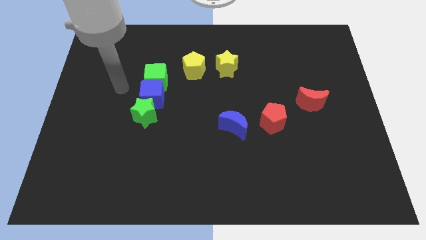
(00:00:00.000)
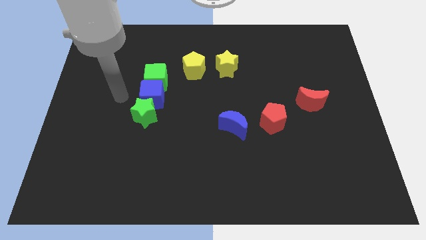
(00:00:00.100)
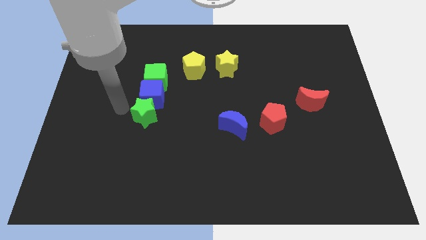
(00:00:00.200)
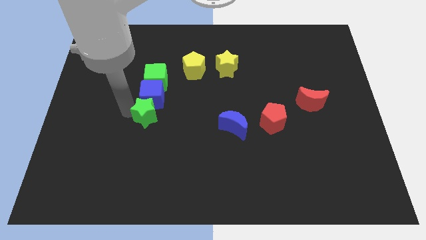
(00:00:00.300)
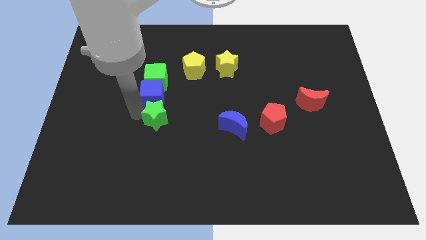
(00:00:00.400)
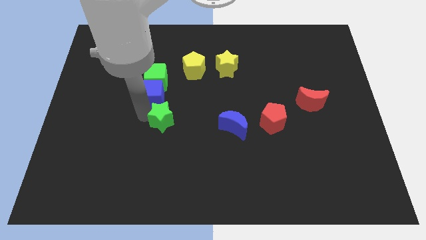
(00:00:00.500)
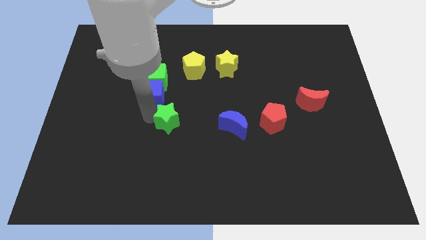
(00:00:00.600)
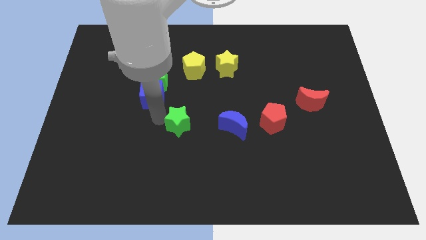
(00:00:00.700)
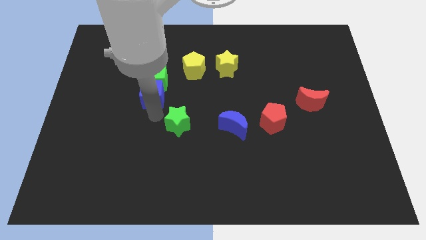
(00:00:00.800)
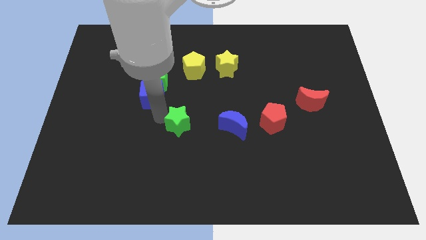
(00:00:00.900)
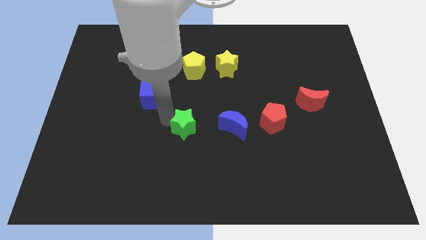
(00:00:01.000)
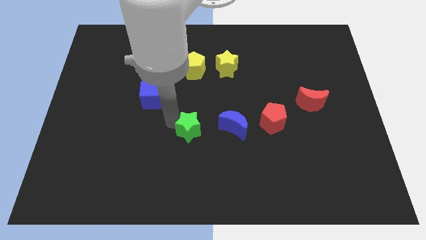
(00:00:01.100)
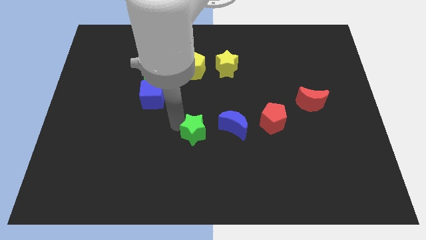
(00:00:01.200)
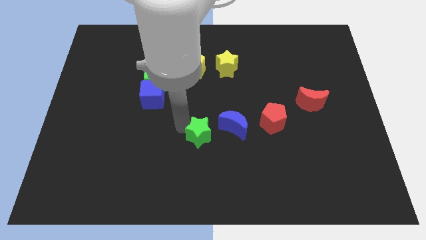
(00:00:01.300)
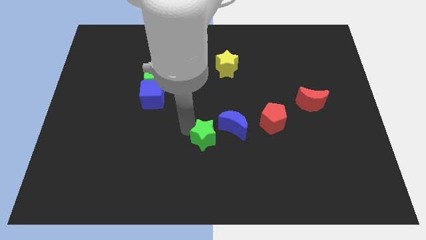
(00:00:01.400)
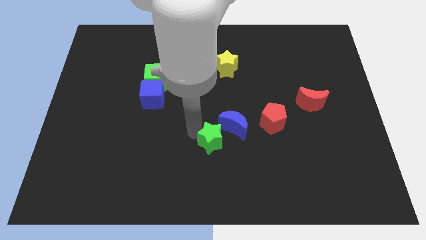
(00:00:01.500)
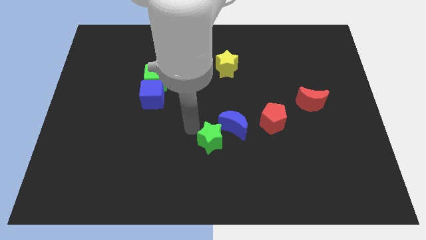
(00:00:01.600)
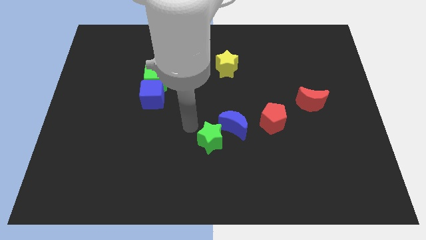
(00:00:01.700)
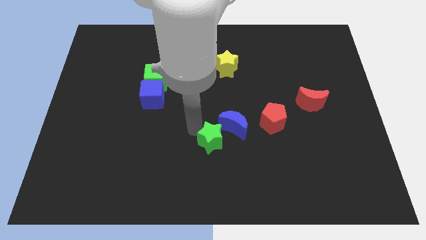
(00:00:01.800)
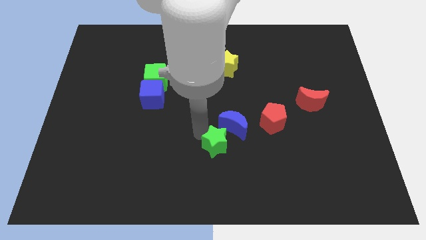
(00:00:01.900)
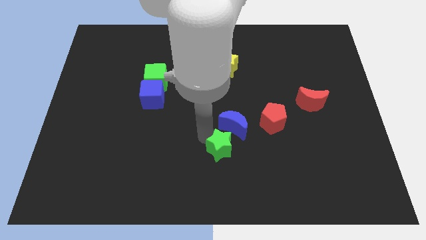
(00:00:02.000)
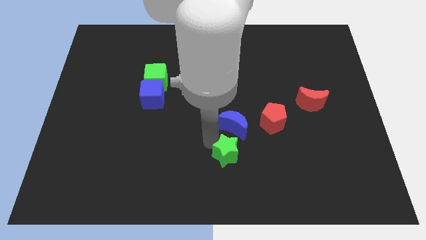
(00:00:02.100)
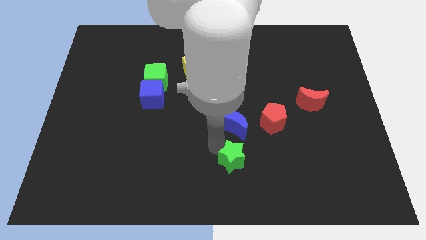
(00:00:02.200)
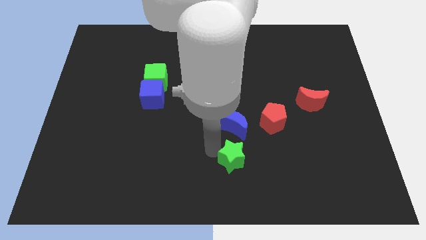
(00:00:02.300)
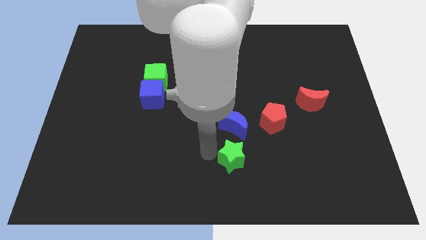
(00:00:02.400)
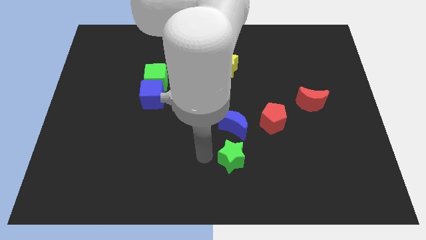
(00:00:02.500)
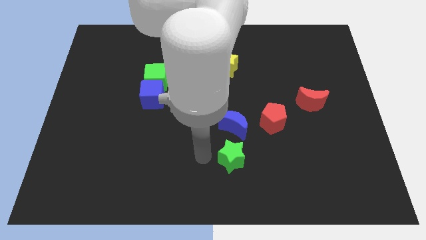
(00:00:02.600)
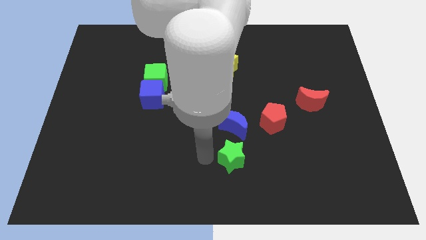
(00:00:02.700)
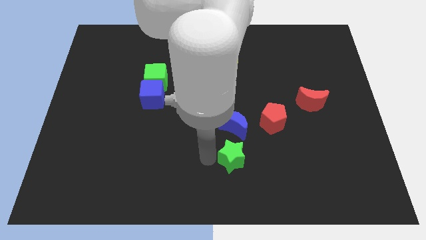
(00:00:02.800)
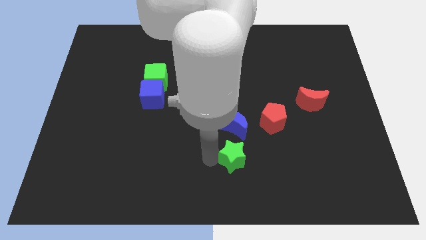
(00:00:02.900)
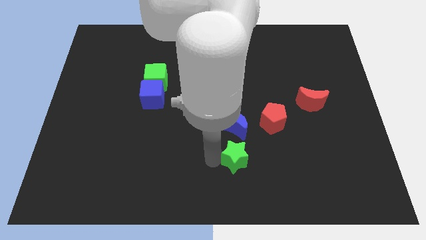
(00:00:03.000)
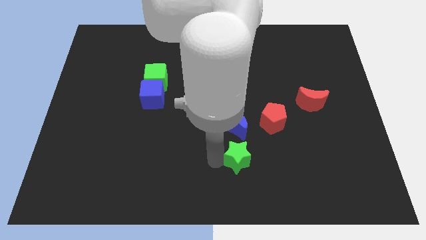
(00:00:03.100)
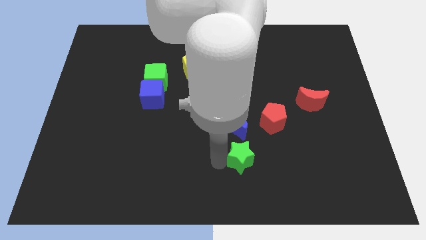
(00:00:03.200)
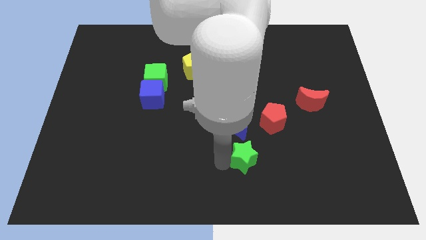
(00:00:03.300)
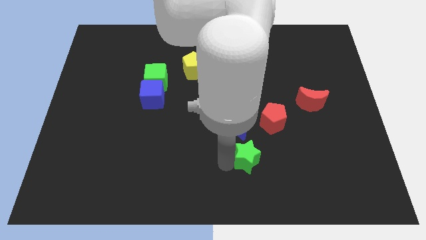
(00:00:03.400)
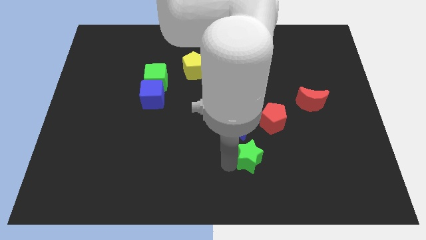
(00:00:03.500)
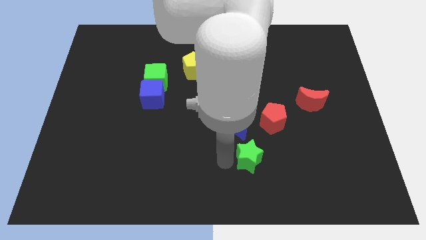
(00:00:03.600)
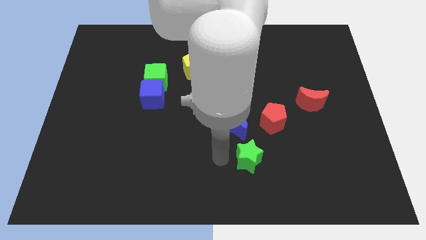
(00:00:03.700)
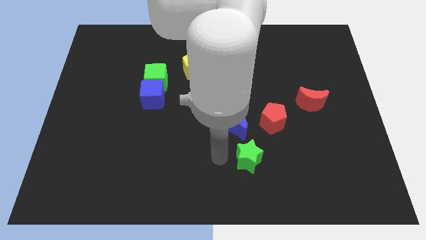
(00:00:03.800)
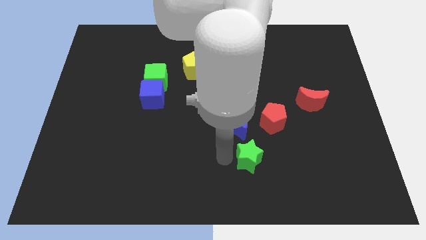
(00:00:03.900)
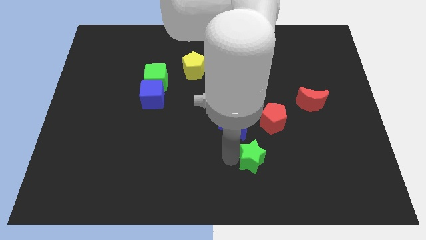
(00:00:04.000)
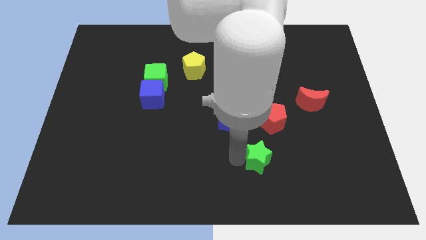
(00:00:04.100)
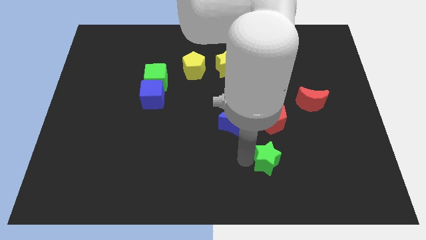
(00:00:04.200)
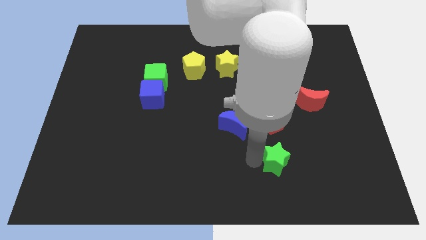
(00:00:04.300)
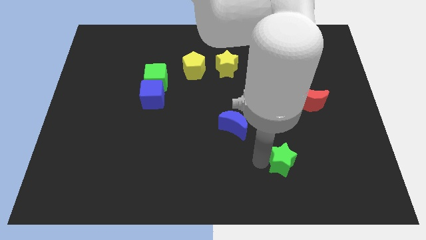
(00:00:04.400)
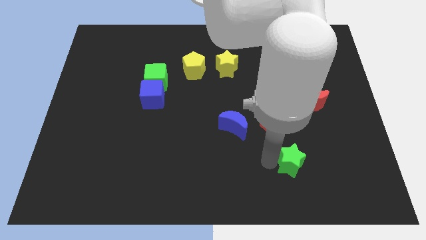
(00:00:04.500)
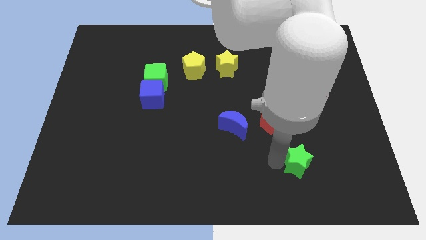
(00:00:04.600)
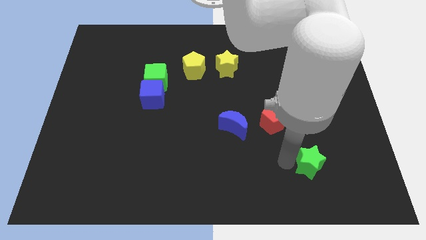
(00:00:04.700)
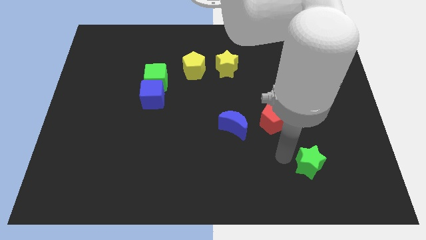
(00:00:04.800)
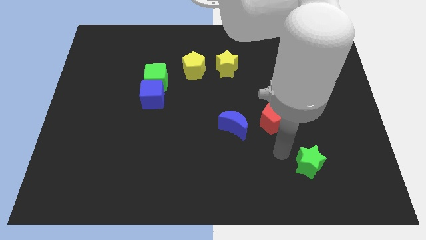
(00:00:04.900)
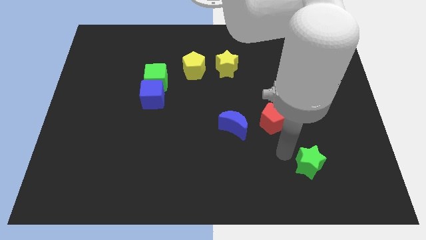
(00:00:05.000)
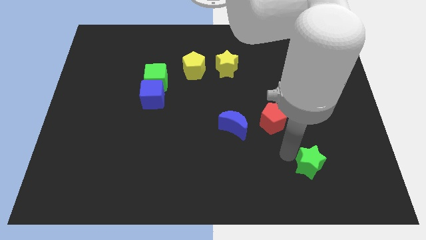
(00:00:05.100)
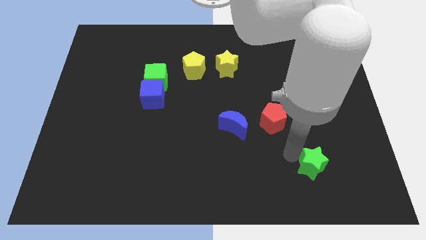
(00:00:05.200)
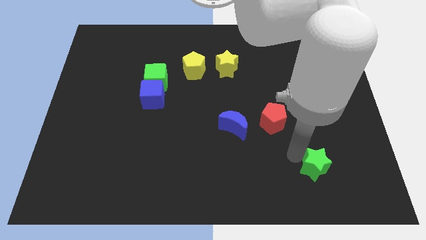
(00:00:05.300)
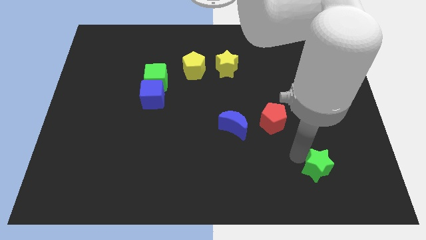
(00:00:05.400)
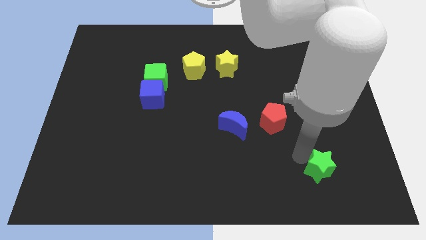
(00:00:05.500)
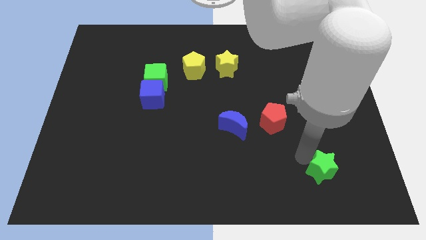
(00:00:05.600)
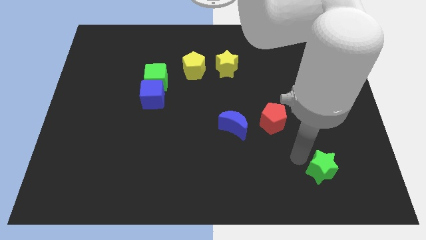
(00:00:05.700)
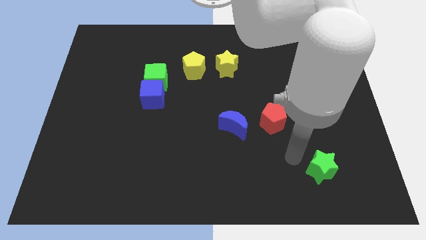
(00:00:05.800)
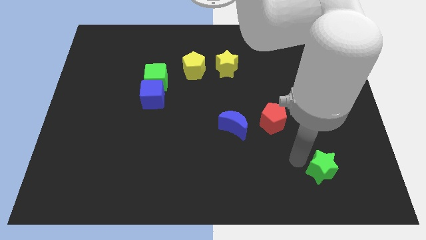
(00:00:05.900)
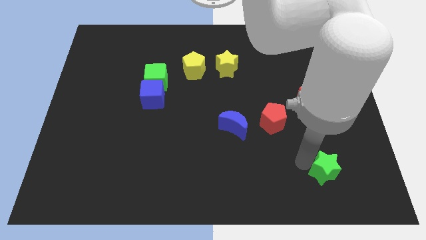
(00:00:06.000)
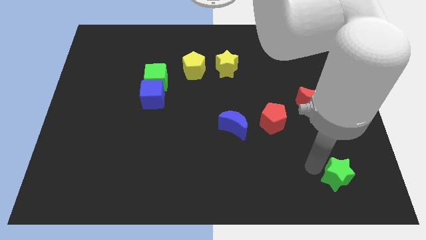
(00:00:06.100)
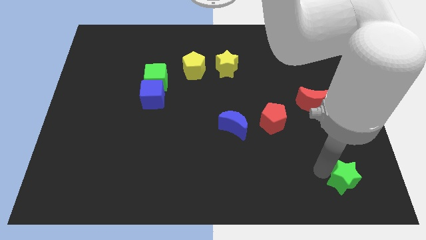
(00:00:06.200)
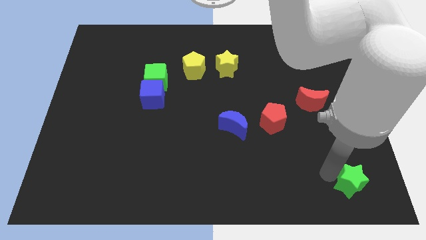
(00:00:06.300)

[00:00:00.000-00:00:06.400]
move the green star to the bottom right corner
